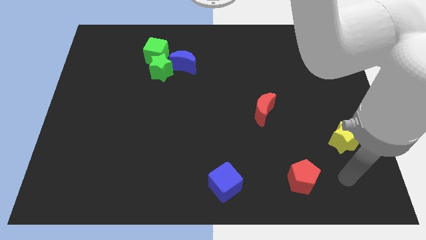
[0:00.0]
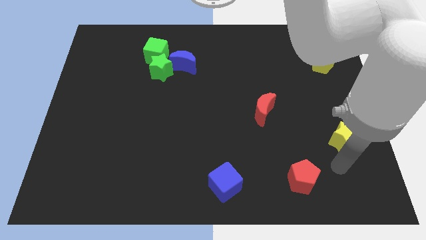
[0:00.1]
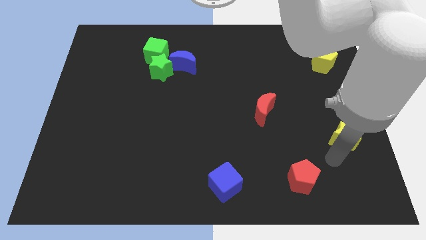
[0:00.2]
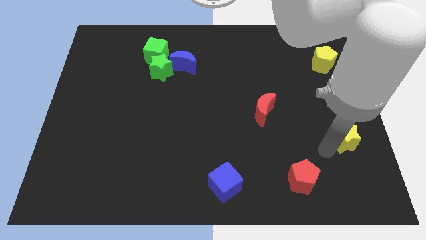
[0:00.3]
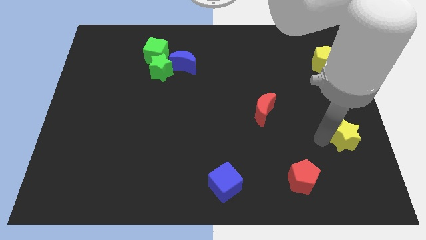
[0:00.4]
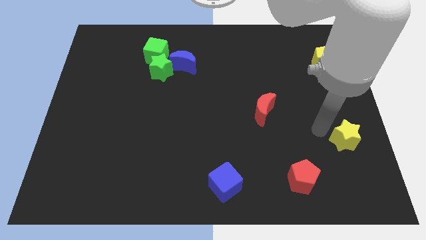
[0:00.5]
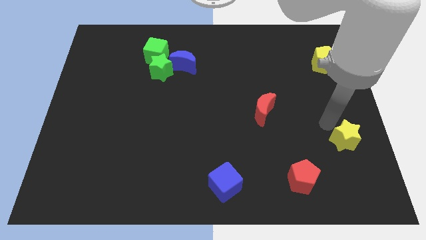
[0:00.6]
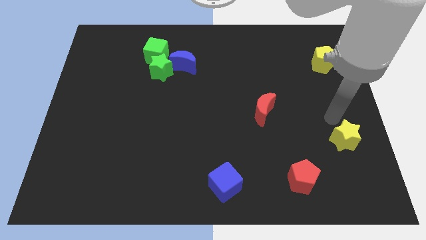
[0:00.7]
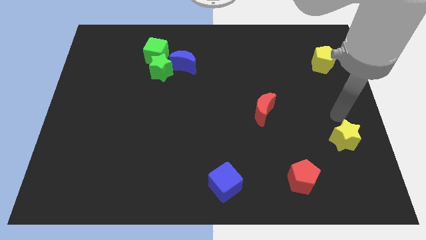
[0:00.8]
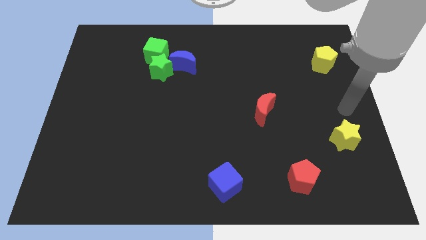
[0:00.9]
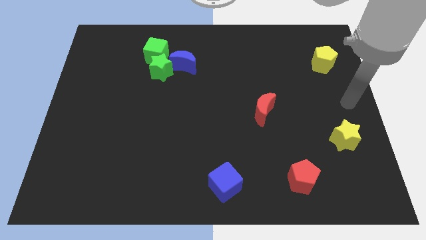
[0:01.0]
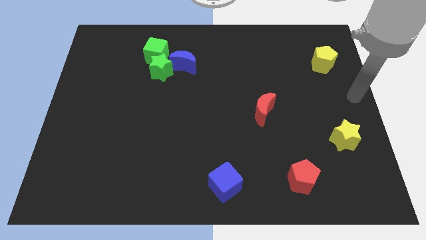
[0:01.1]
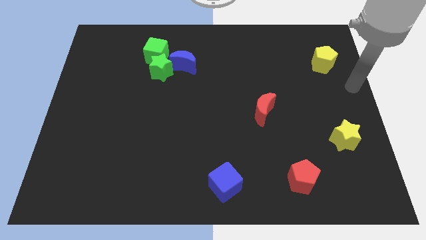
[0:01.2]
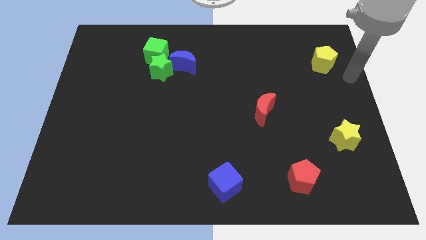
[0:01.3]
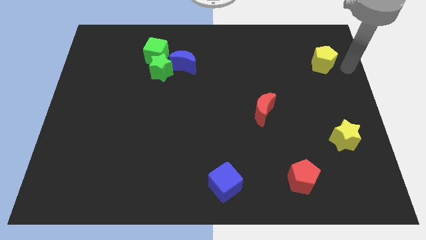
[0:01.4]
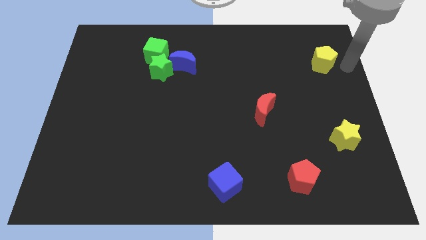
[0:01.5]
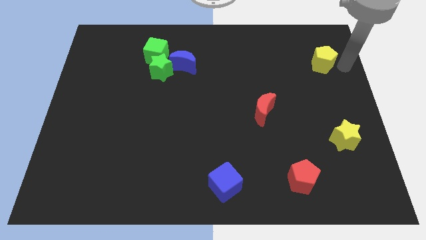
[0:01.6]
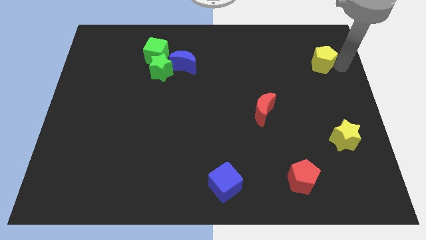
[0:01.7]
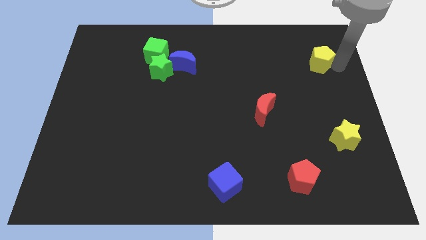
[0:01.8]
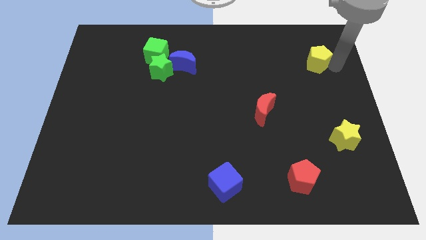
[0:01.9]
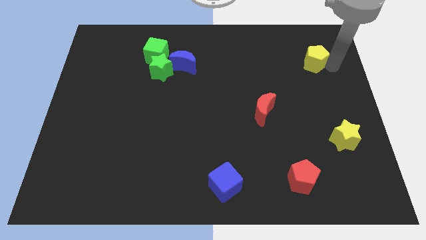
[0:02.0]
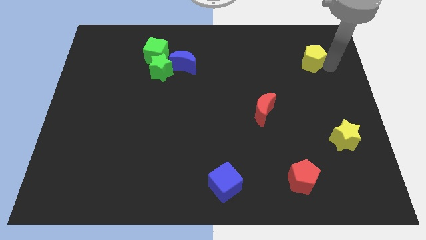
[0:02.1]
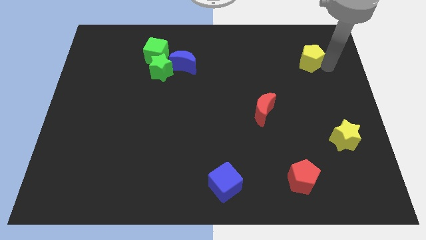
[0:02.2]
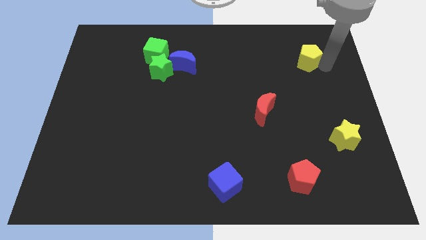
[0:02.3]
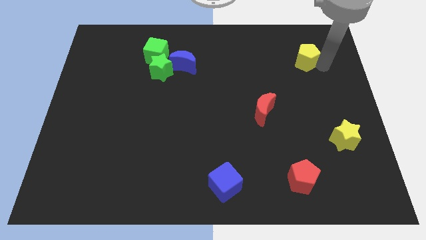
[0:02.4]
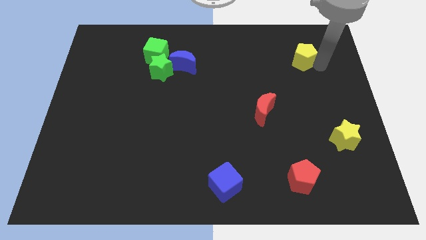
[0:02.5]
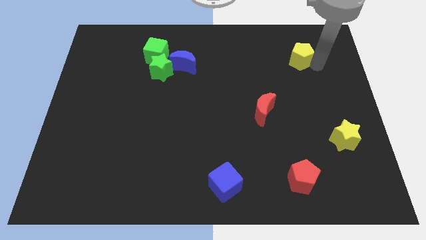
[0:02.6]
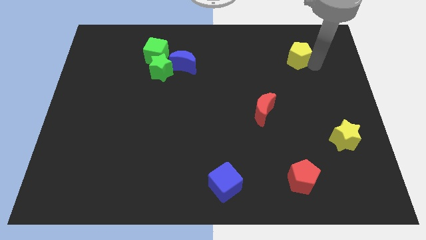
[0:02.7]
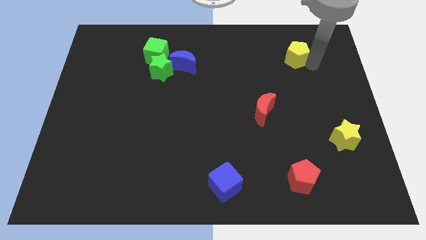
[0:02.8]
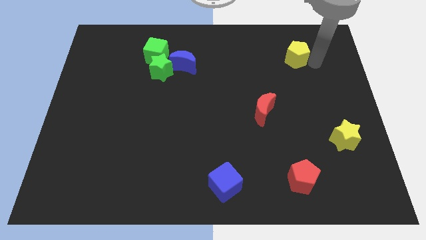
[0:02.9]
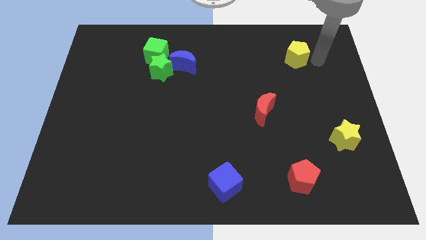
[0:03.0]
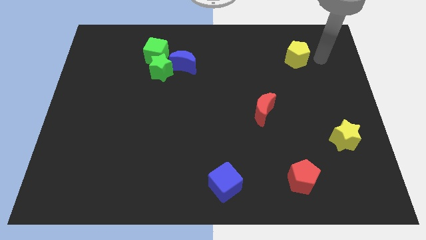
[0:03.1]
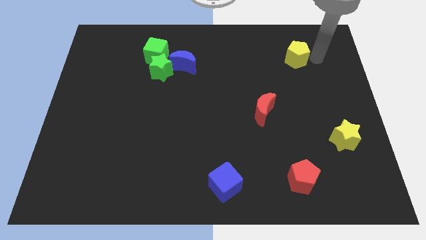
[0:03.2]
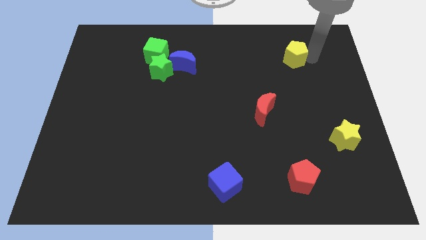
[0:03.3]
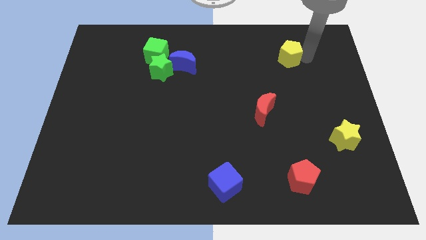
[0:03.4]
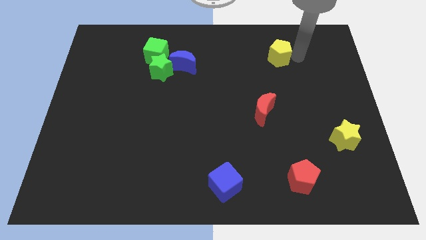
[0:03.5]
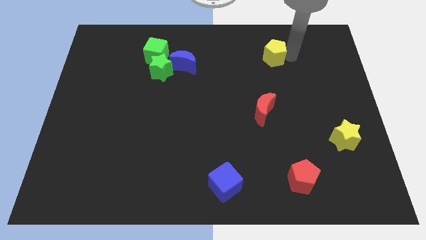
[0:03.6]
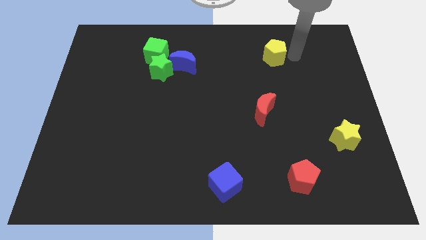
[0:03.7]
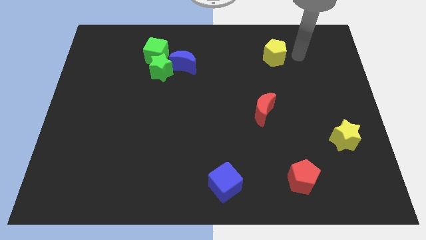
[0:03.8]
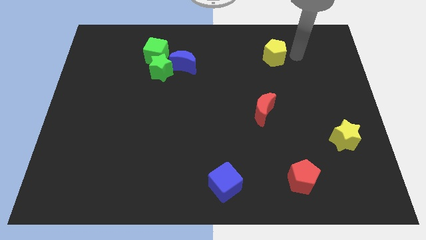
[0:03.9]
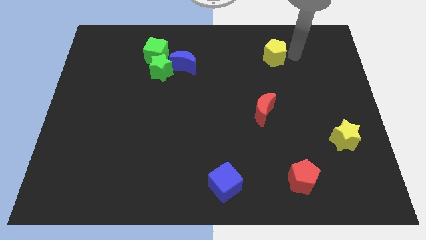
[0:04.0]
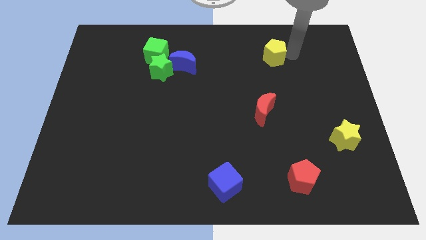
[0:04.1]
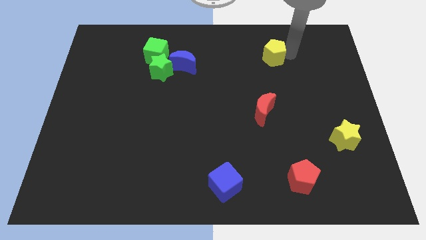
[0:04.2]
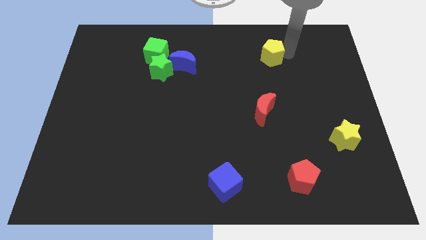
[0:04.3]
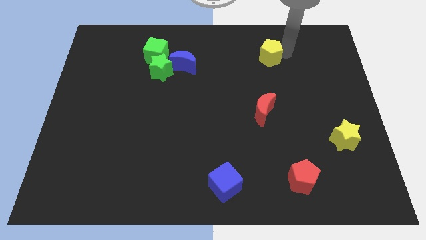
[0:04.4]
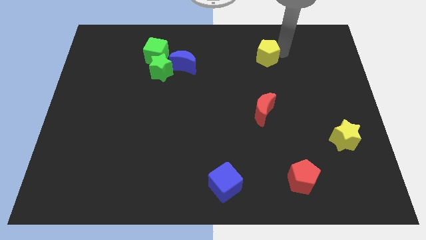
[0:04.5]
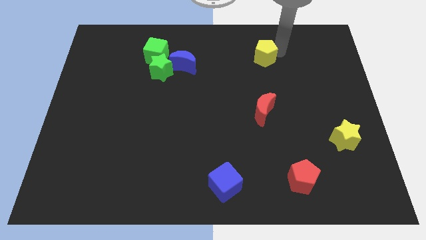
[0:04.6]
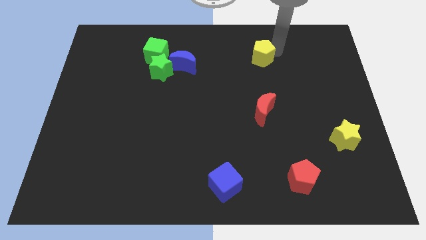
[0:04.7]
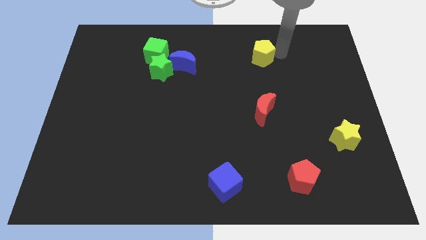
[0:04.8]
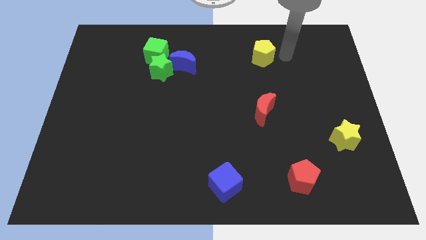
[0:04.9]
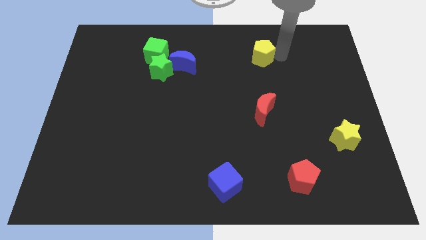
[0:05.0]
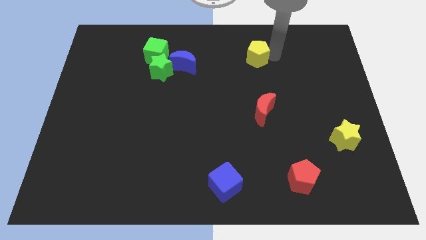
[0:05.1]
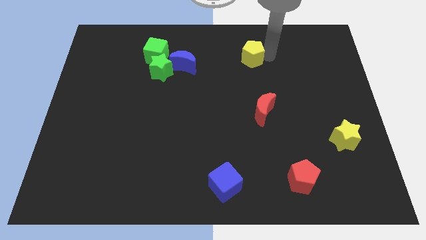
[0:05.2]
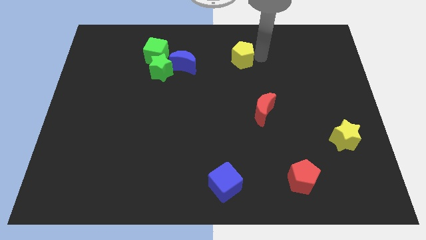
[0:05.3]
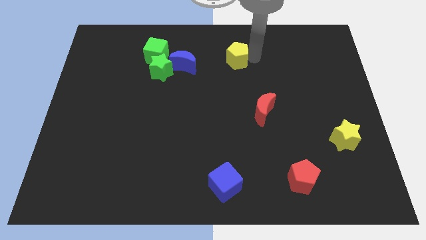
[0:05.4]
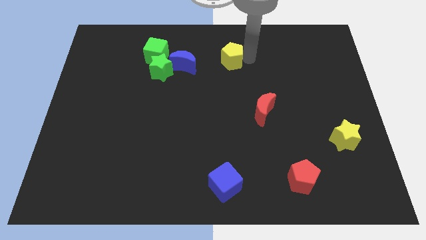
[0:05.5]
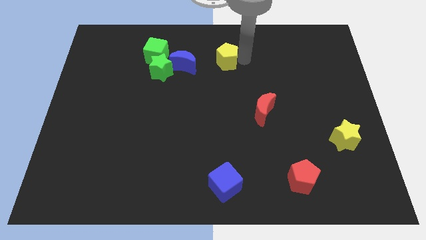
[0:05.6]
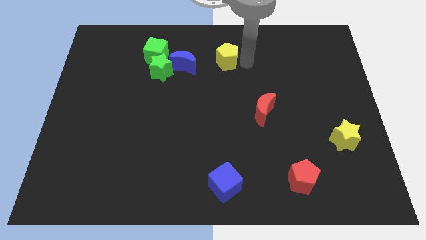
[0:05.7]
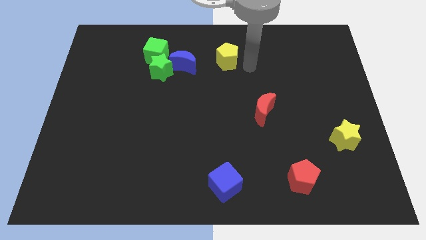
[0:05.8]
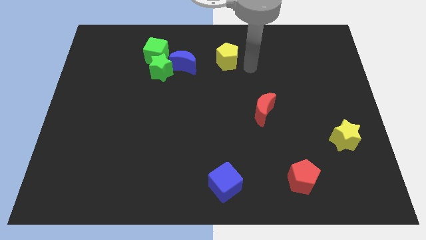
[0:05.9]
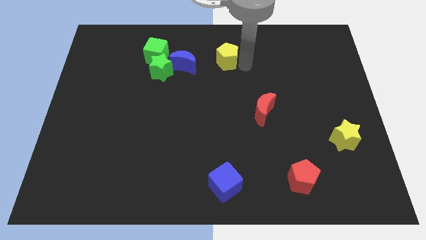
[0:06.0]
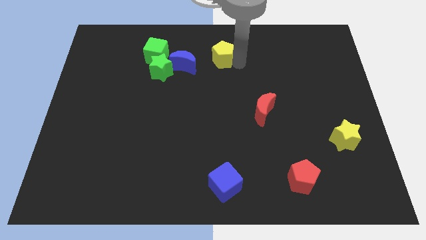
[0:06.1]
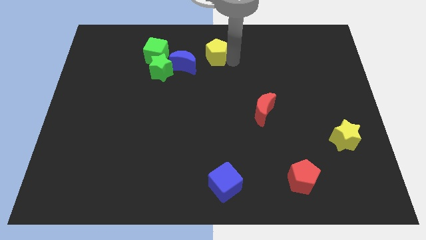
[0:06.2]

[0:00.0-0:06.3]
push the yellow pentagon to the towards your base

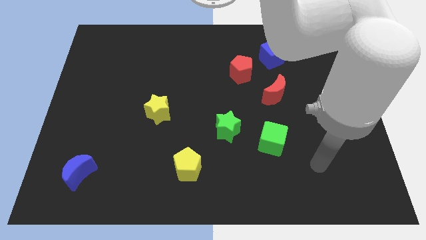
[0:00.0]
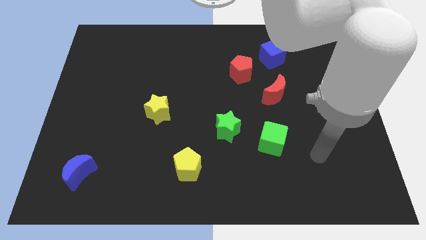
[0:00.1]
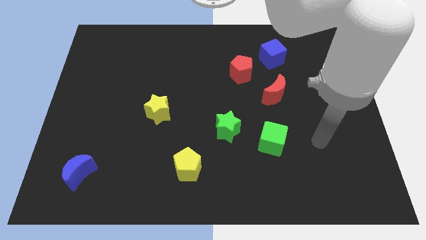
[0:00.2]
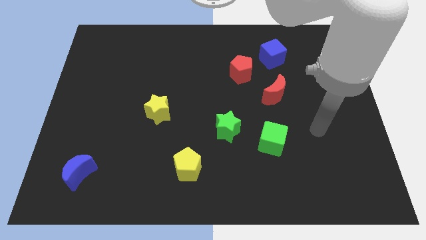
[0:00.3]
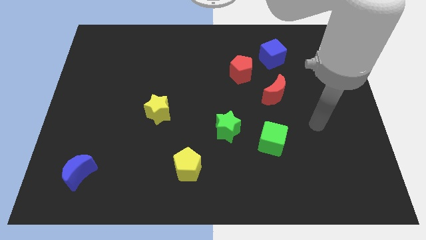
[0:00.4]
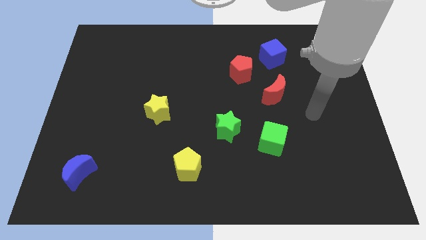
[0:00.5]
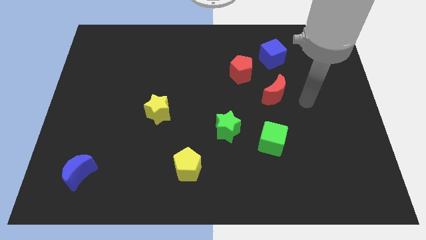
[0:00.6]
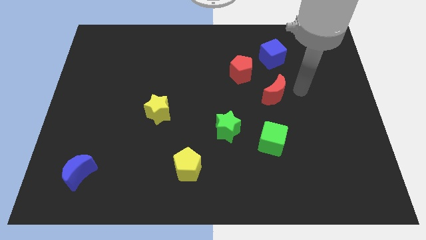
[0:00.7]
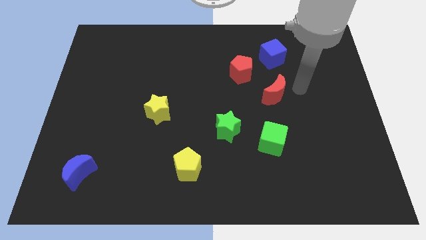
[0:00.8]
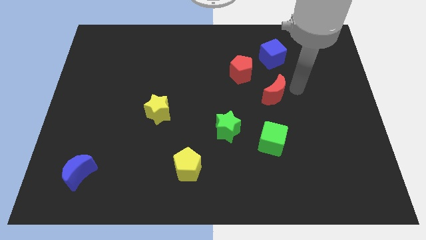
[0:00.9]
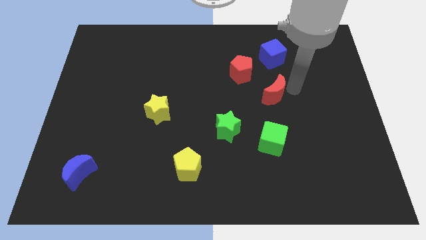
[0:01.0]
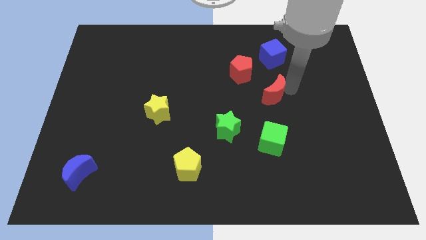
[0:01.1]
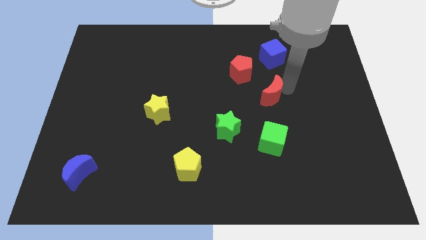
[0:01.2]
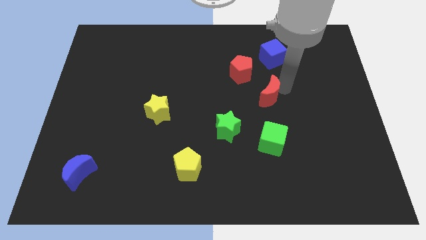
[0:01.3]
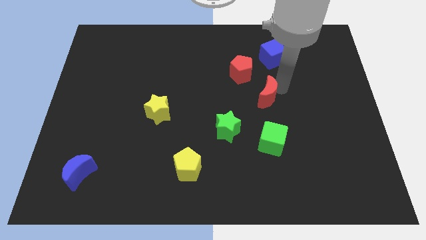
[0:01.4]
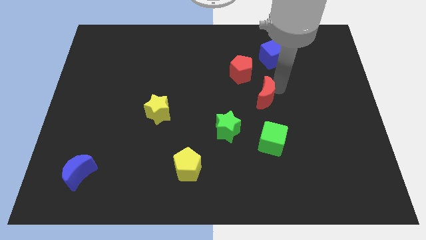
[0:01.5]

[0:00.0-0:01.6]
push the red moon to the center of the board
